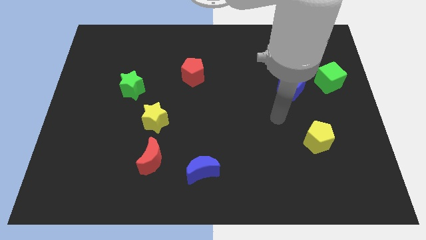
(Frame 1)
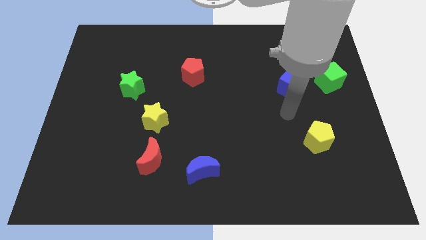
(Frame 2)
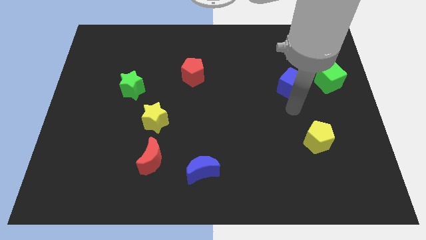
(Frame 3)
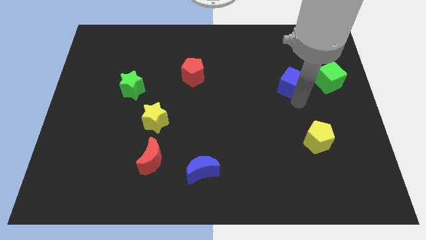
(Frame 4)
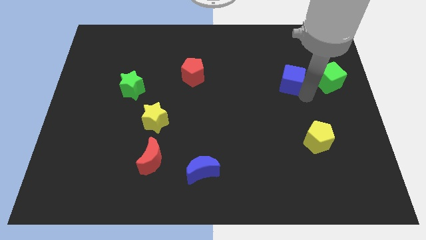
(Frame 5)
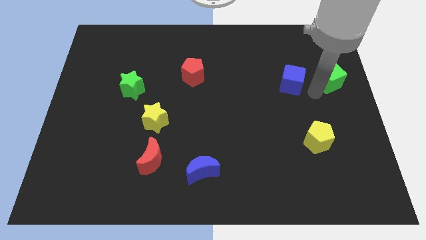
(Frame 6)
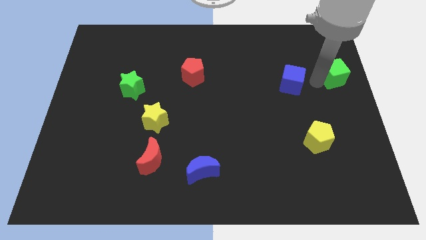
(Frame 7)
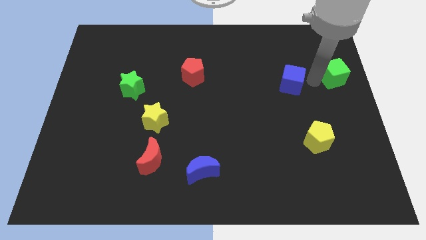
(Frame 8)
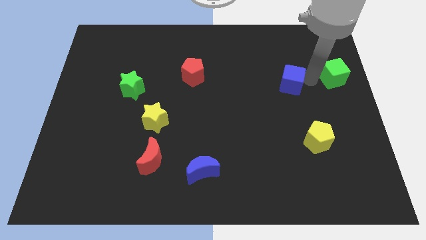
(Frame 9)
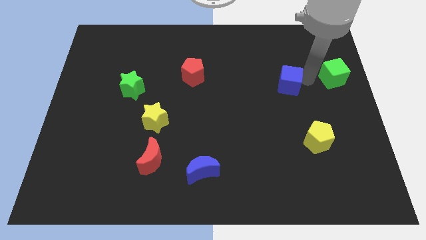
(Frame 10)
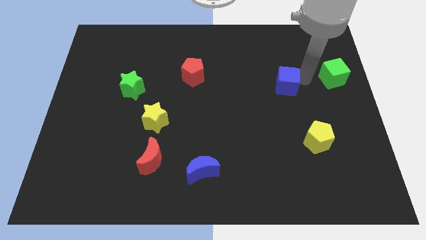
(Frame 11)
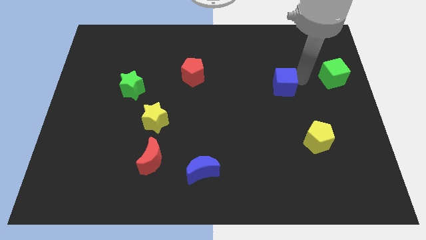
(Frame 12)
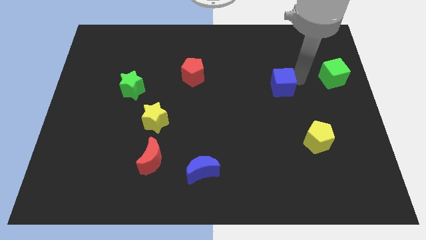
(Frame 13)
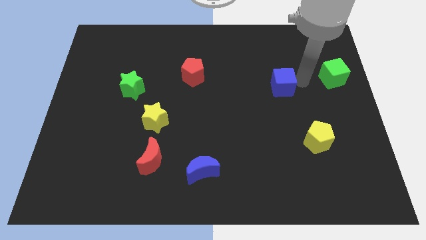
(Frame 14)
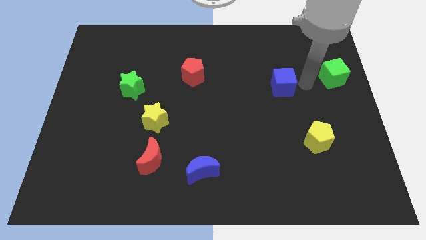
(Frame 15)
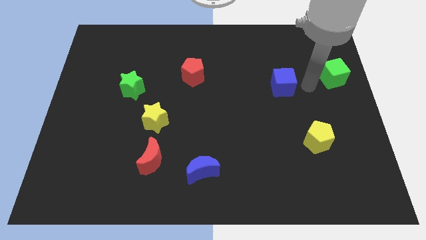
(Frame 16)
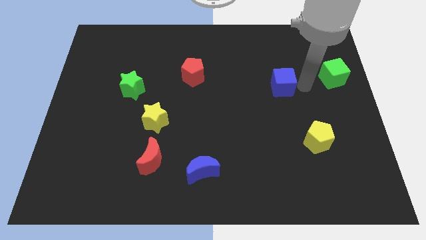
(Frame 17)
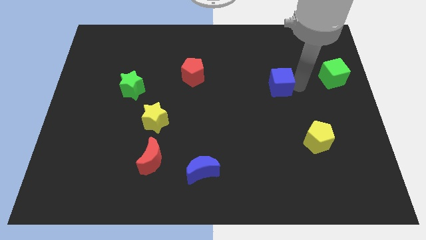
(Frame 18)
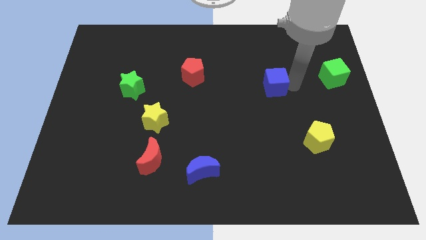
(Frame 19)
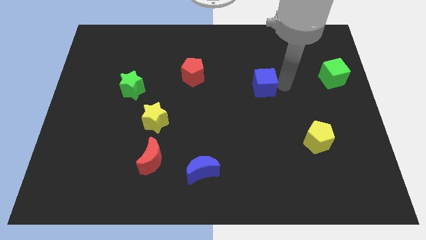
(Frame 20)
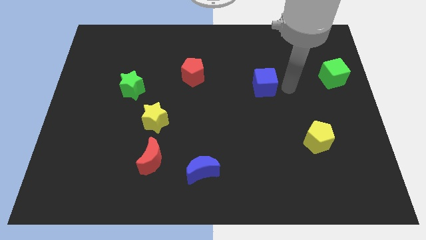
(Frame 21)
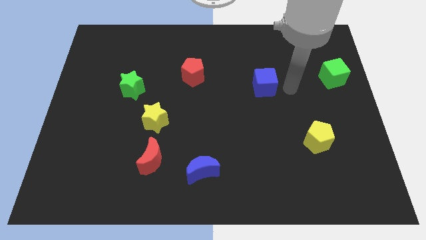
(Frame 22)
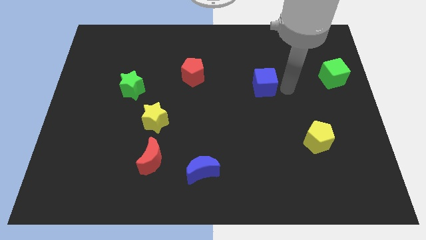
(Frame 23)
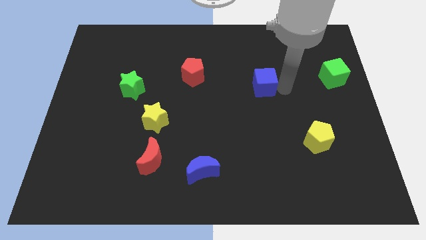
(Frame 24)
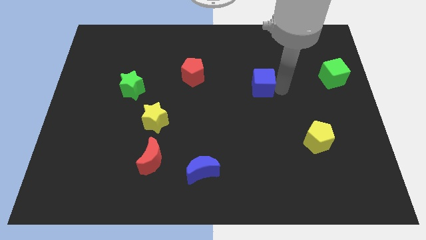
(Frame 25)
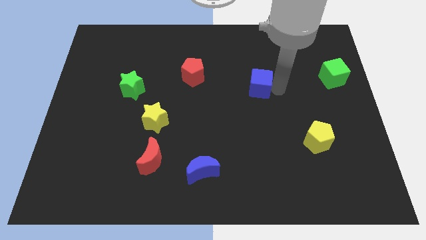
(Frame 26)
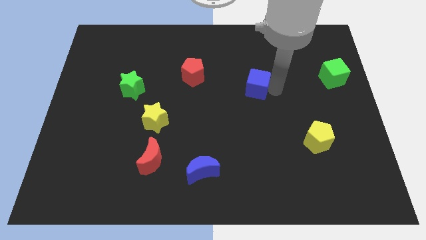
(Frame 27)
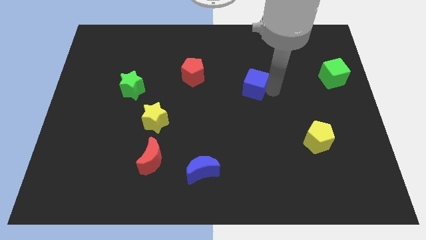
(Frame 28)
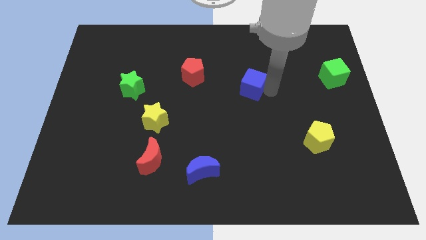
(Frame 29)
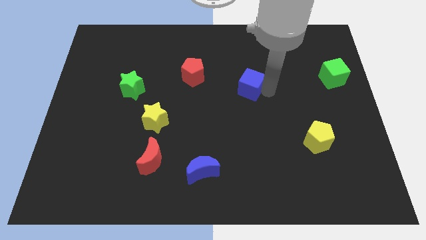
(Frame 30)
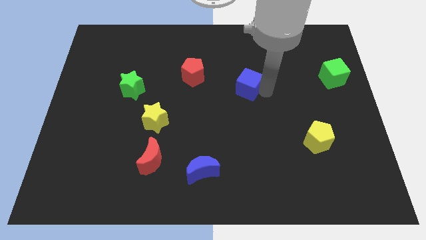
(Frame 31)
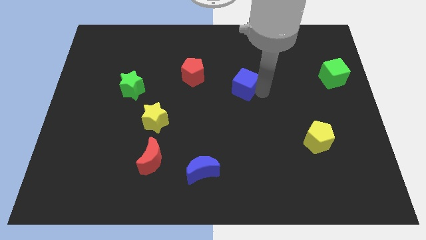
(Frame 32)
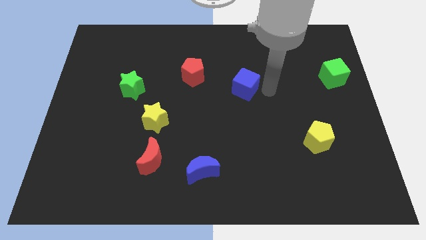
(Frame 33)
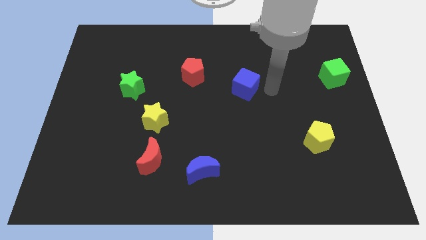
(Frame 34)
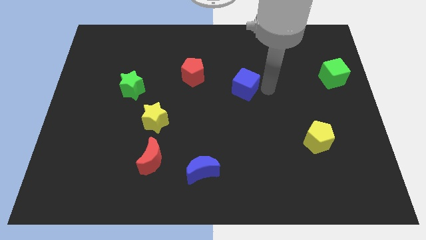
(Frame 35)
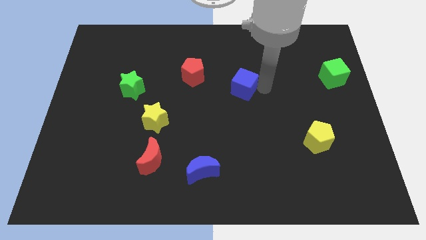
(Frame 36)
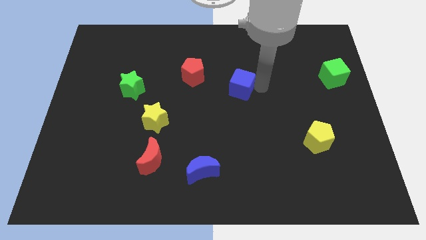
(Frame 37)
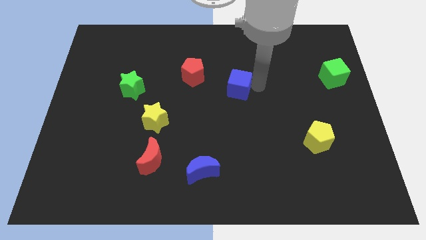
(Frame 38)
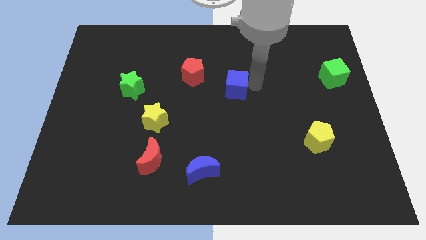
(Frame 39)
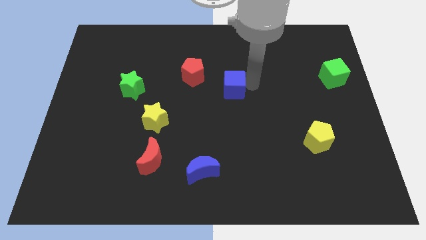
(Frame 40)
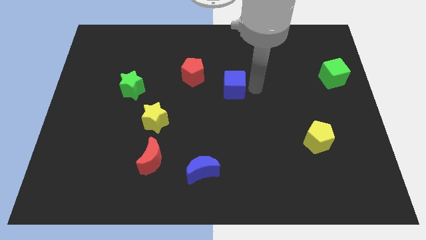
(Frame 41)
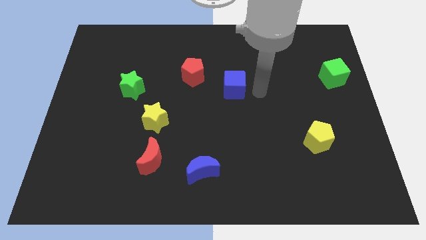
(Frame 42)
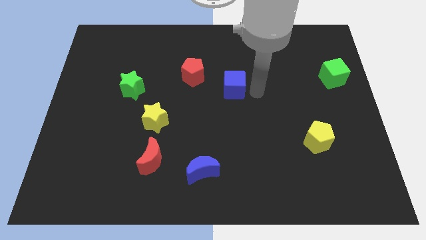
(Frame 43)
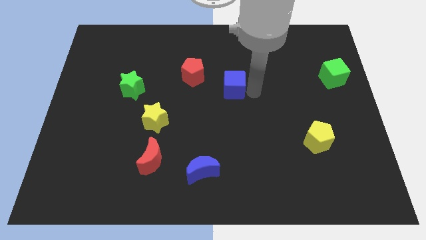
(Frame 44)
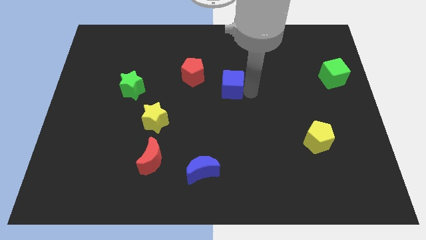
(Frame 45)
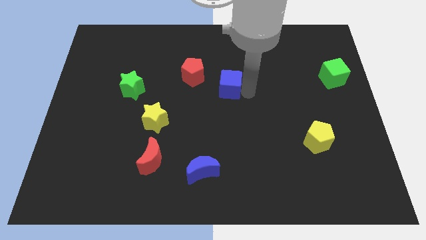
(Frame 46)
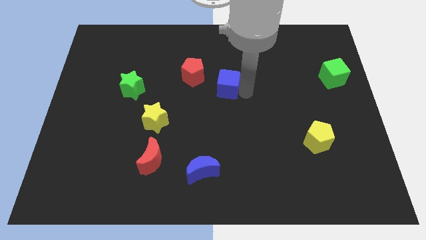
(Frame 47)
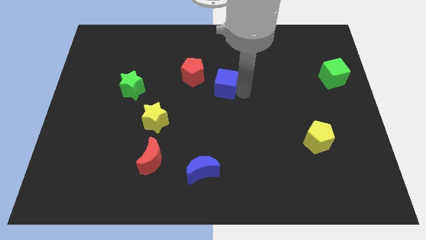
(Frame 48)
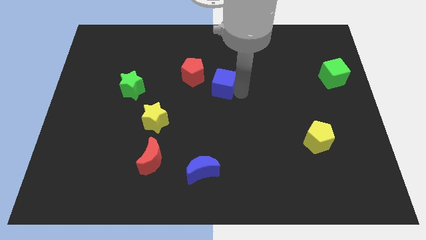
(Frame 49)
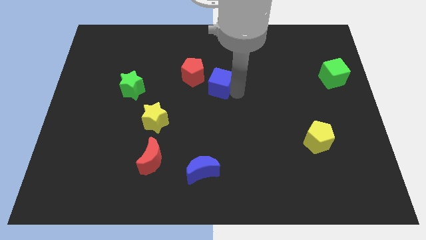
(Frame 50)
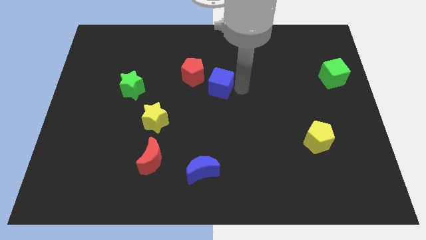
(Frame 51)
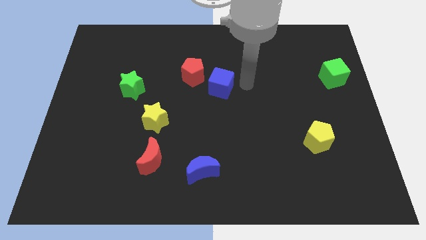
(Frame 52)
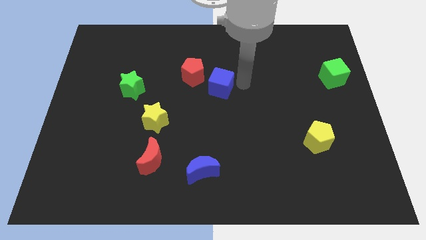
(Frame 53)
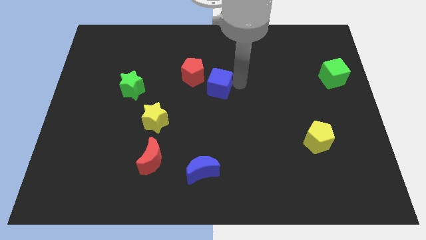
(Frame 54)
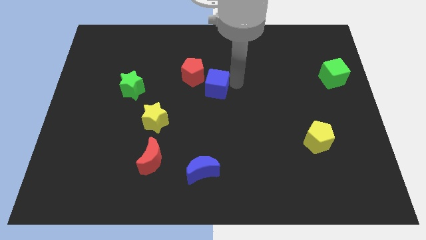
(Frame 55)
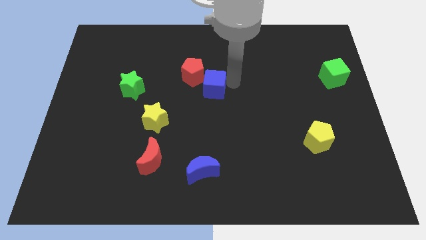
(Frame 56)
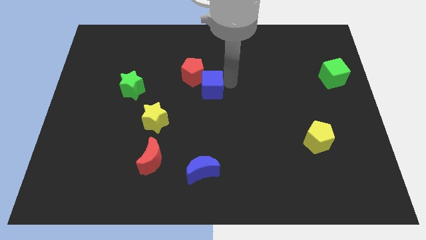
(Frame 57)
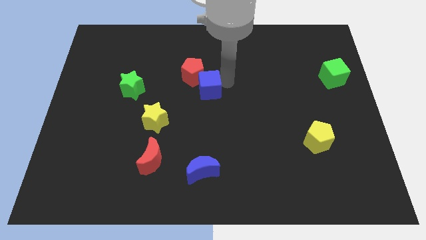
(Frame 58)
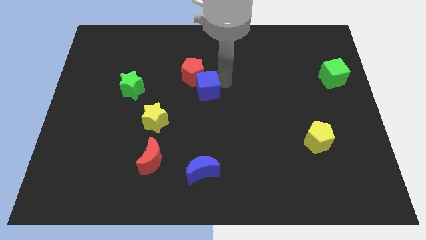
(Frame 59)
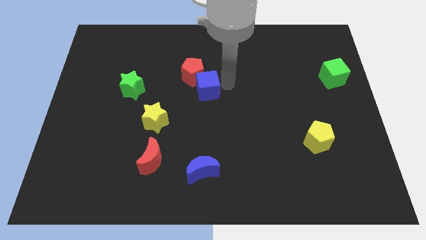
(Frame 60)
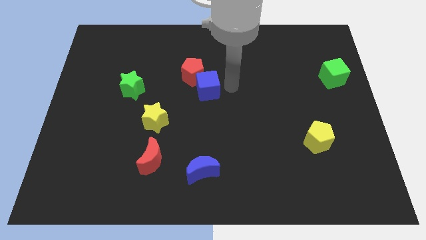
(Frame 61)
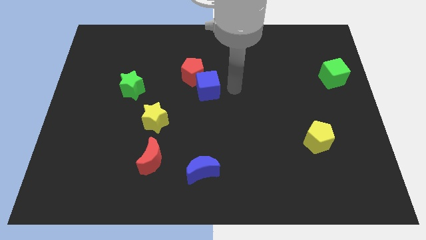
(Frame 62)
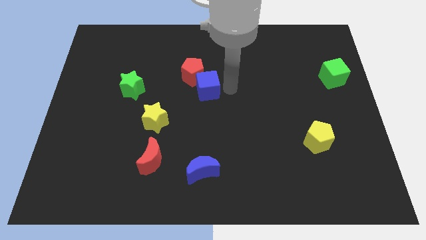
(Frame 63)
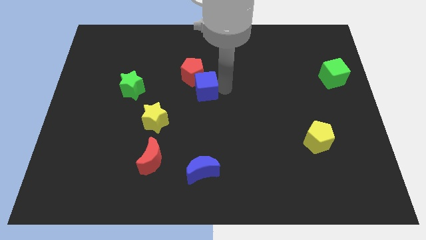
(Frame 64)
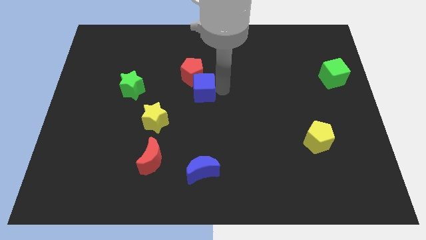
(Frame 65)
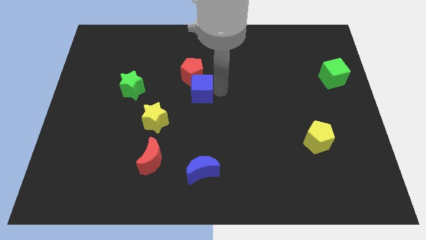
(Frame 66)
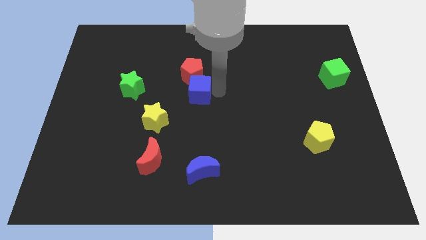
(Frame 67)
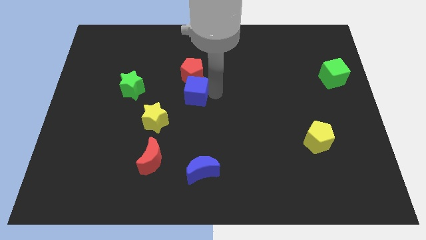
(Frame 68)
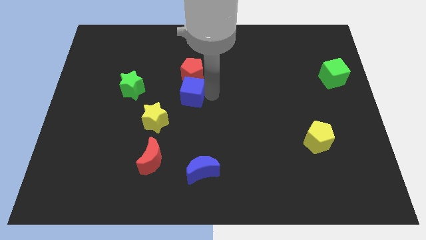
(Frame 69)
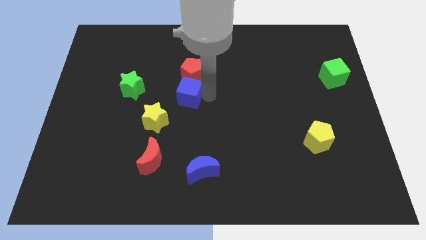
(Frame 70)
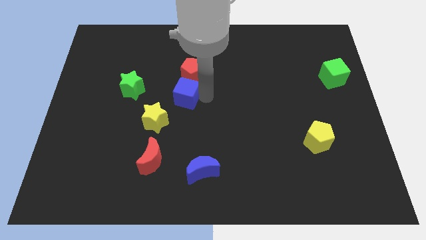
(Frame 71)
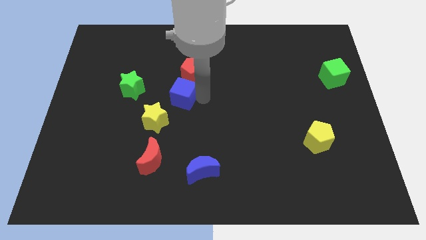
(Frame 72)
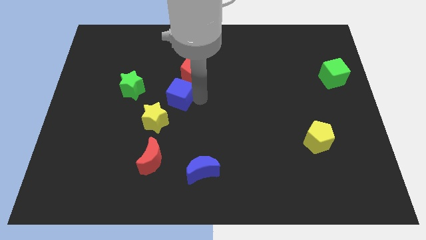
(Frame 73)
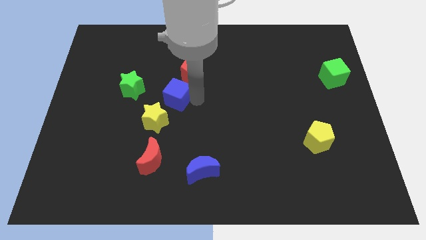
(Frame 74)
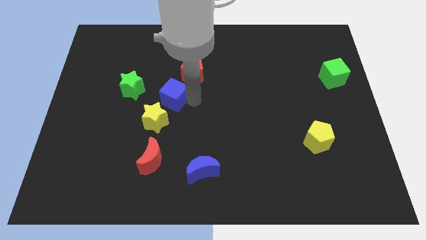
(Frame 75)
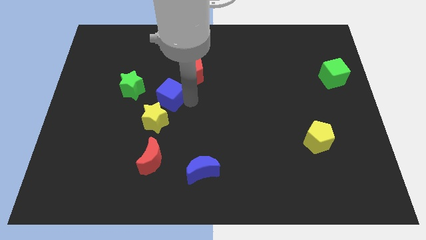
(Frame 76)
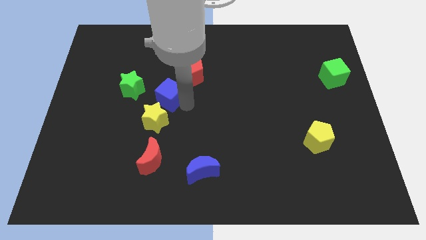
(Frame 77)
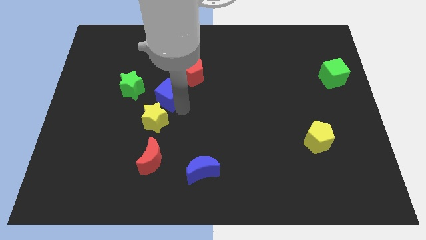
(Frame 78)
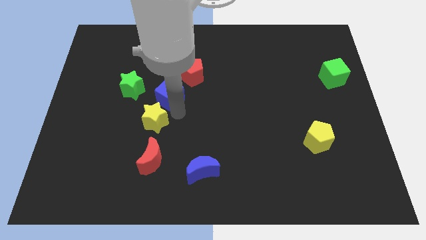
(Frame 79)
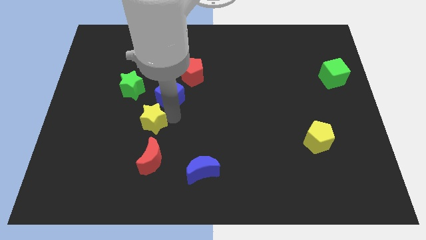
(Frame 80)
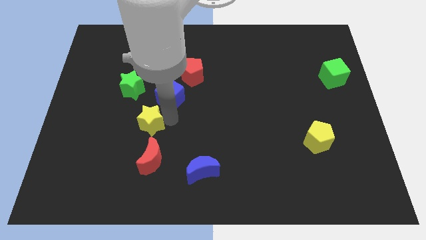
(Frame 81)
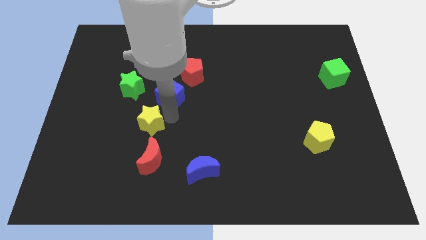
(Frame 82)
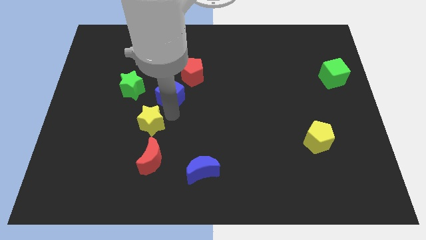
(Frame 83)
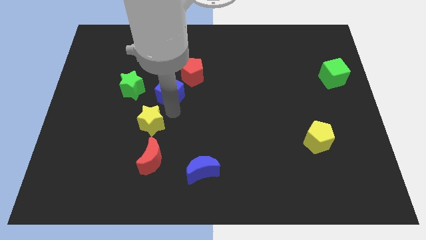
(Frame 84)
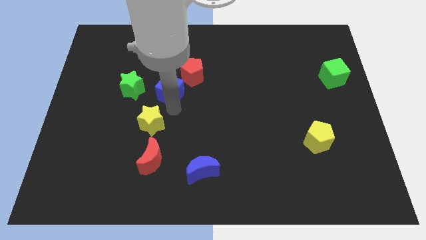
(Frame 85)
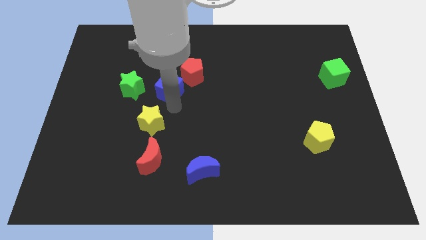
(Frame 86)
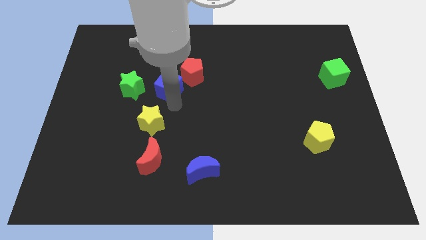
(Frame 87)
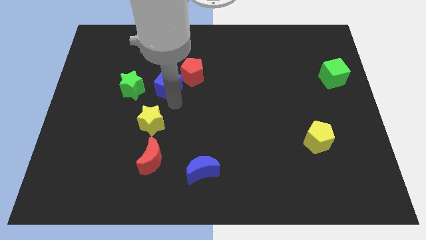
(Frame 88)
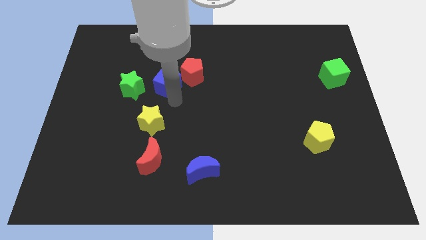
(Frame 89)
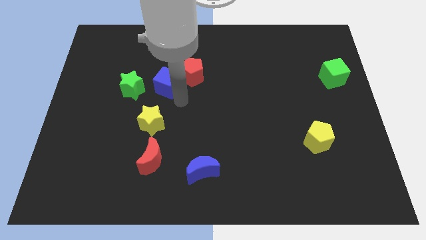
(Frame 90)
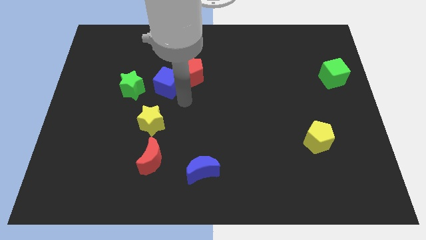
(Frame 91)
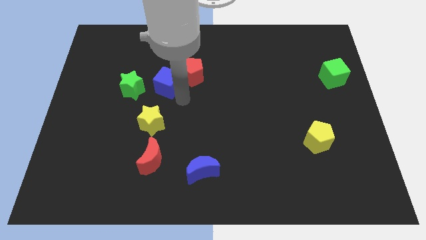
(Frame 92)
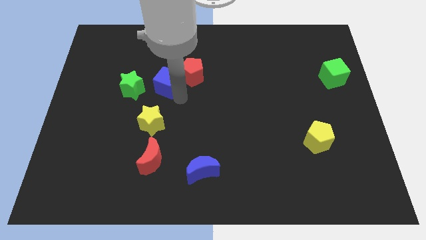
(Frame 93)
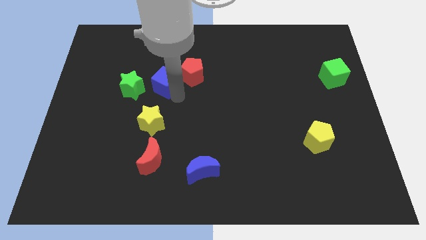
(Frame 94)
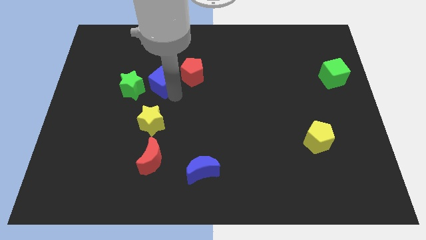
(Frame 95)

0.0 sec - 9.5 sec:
slide the blue cube to the top right of the green star
